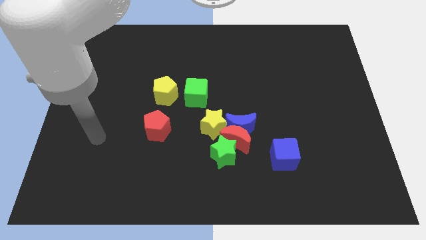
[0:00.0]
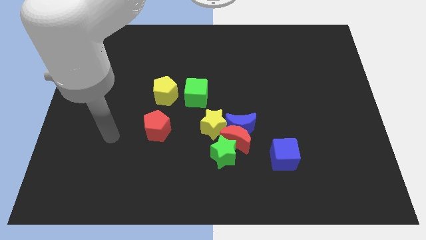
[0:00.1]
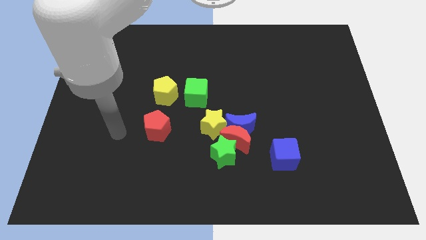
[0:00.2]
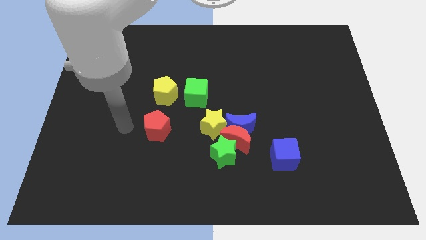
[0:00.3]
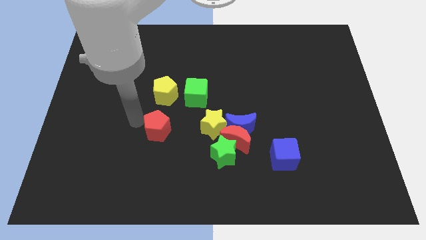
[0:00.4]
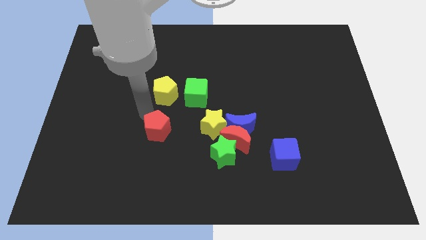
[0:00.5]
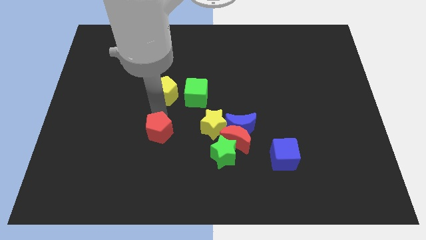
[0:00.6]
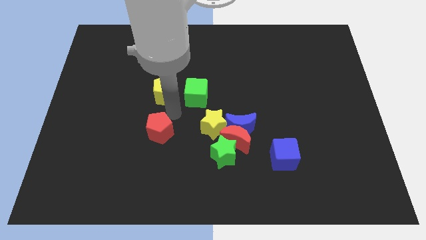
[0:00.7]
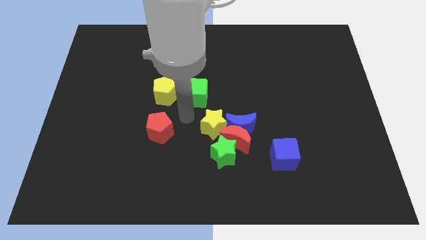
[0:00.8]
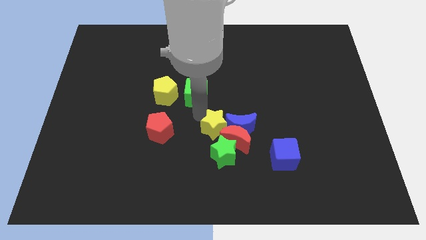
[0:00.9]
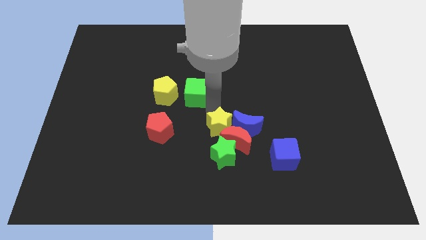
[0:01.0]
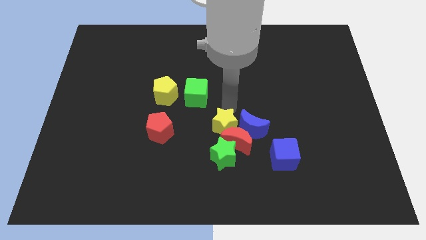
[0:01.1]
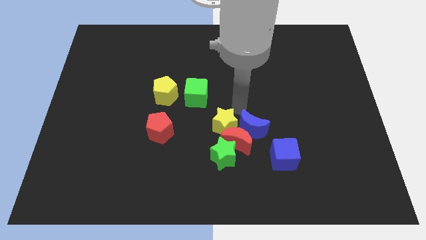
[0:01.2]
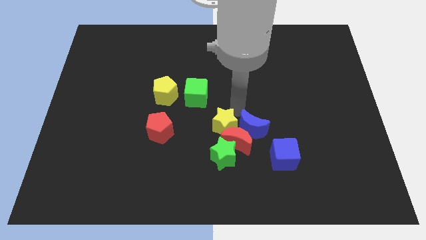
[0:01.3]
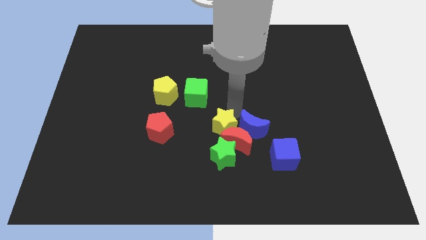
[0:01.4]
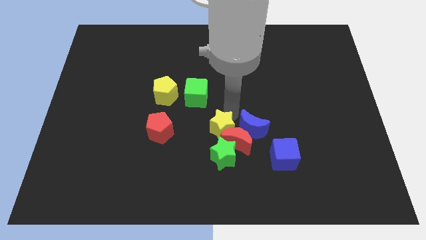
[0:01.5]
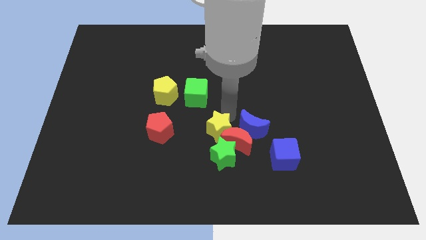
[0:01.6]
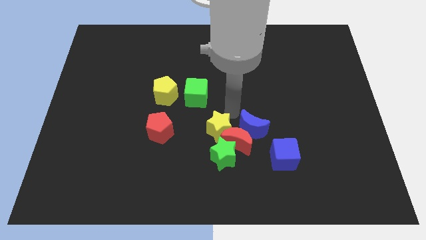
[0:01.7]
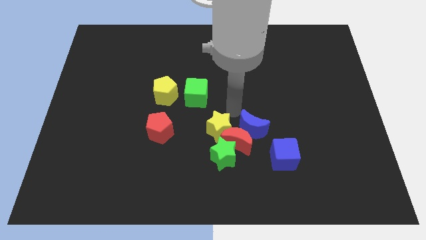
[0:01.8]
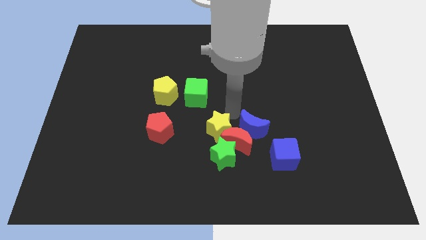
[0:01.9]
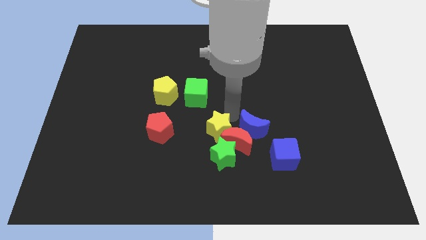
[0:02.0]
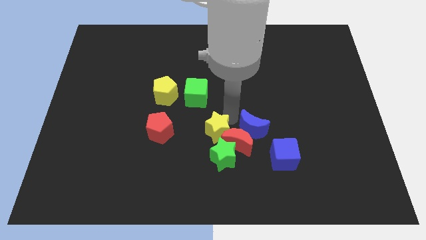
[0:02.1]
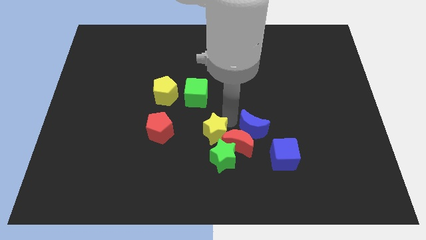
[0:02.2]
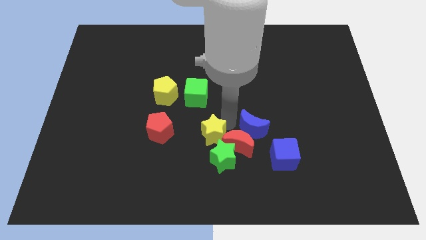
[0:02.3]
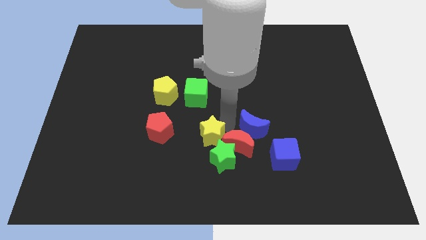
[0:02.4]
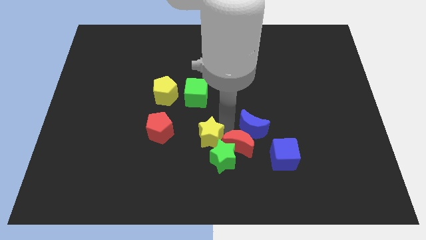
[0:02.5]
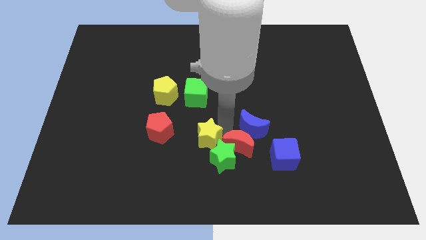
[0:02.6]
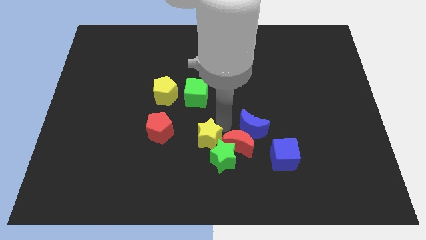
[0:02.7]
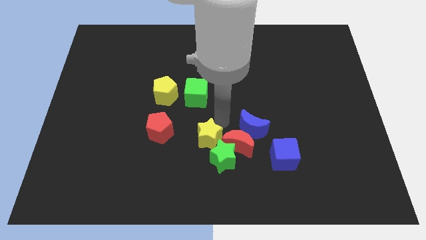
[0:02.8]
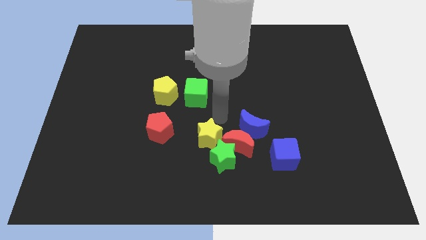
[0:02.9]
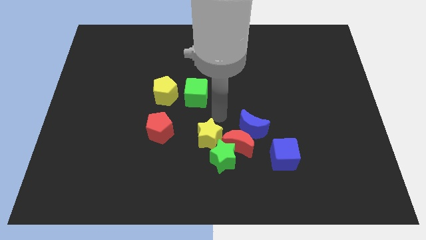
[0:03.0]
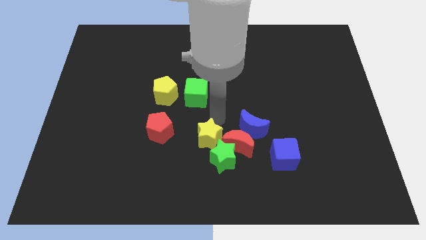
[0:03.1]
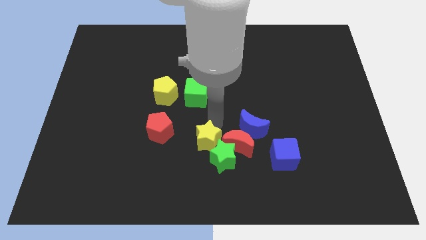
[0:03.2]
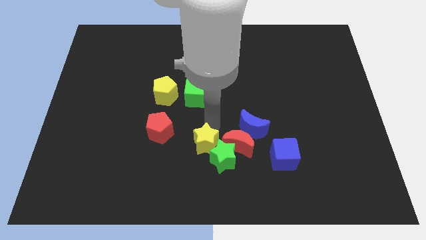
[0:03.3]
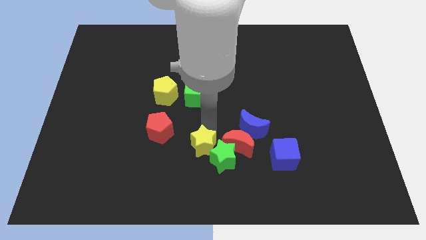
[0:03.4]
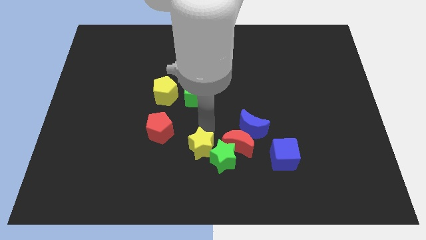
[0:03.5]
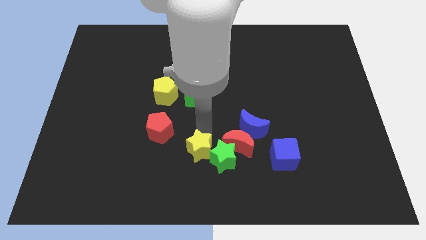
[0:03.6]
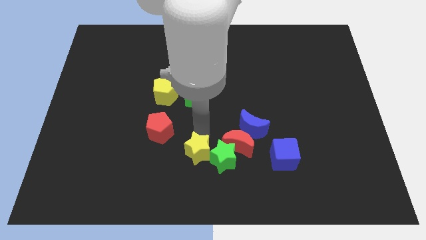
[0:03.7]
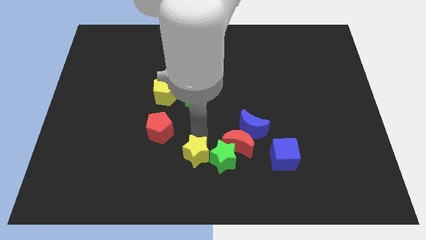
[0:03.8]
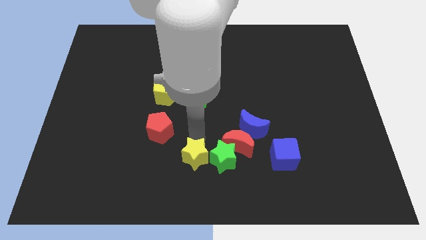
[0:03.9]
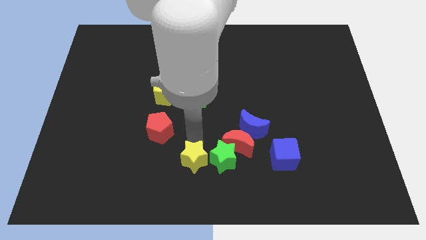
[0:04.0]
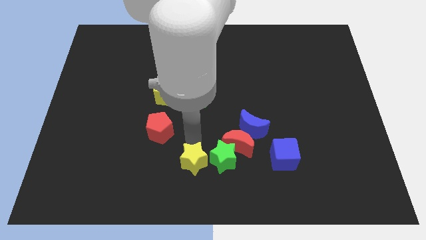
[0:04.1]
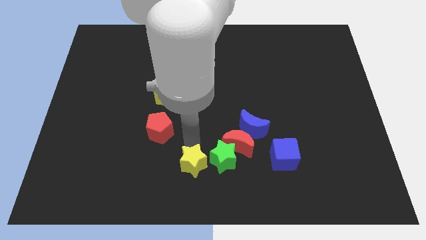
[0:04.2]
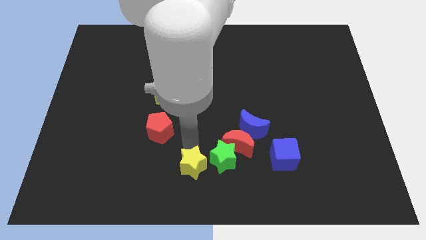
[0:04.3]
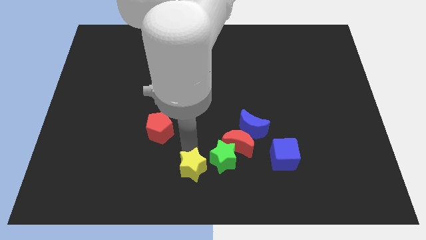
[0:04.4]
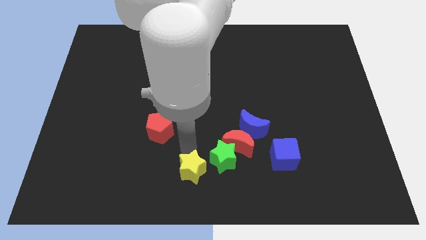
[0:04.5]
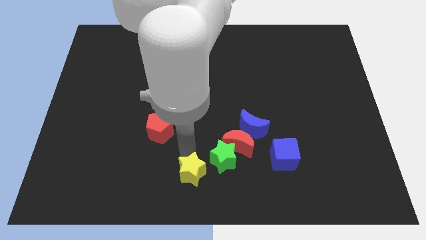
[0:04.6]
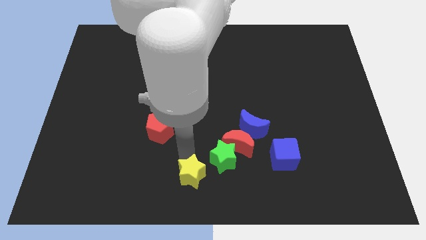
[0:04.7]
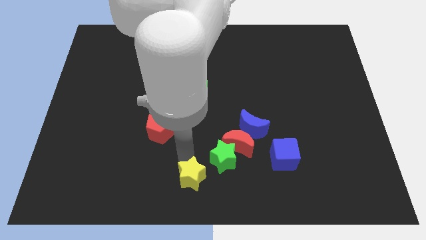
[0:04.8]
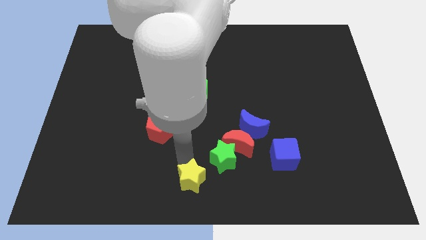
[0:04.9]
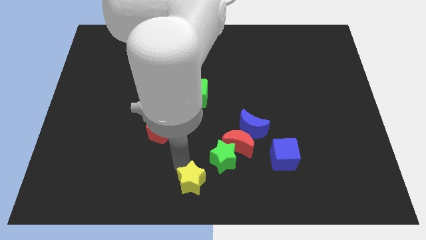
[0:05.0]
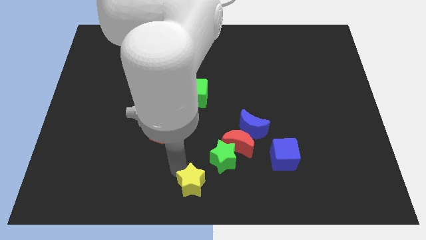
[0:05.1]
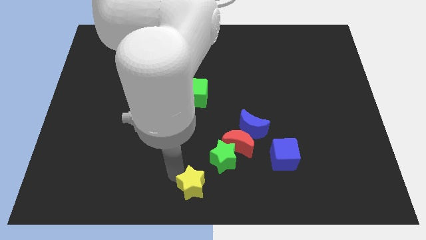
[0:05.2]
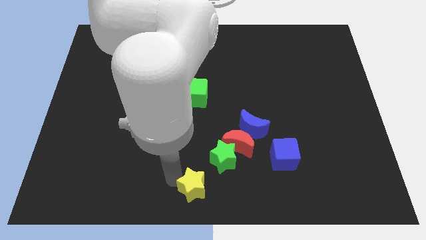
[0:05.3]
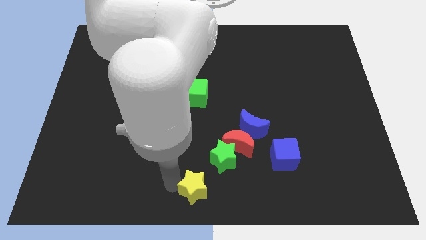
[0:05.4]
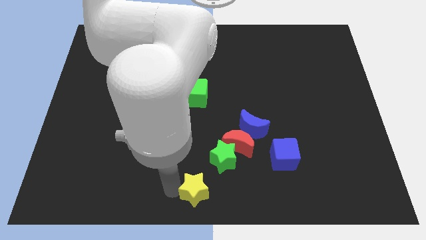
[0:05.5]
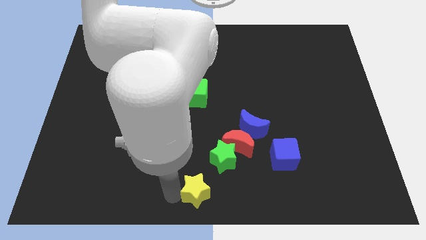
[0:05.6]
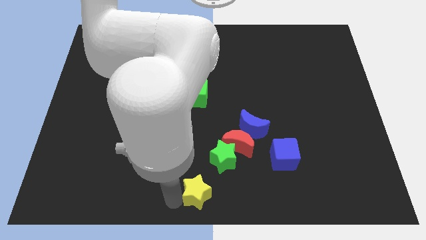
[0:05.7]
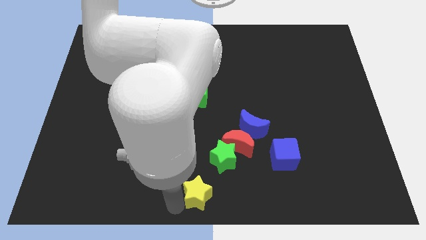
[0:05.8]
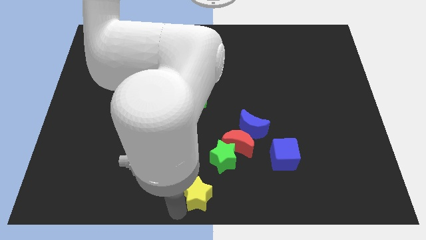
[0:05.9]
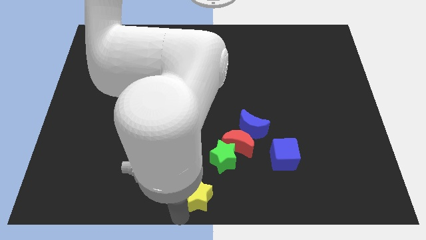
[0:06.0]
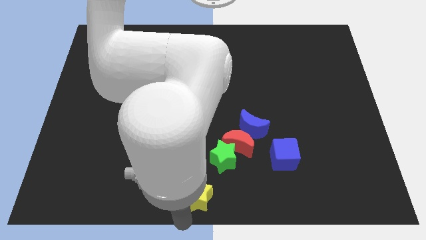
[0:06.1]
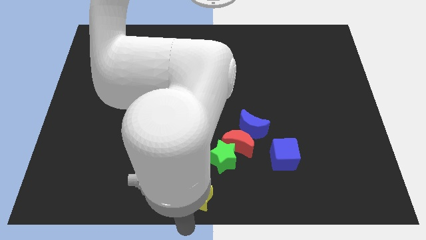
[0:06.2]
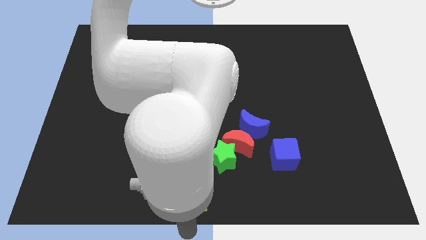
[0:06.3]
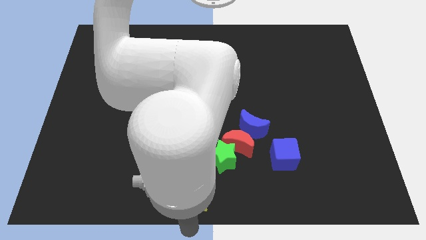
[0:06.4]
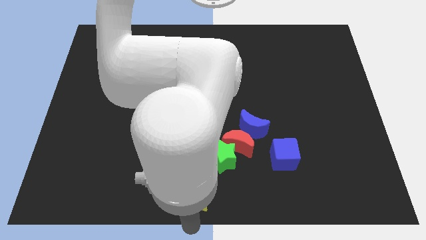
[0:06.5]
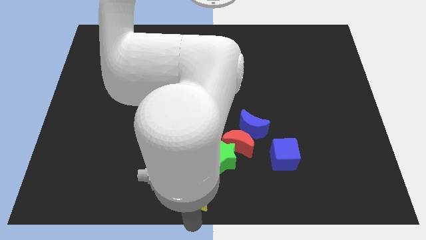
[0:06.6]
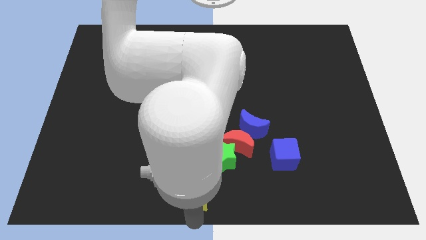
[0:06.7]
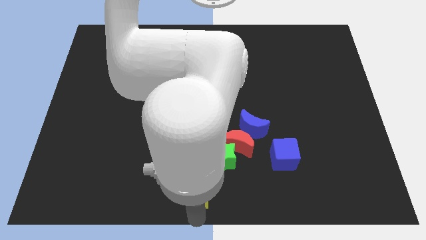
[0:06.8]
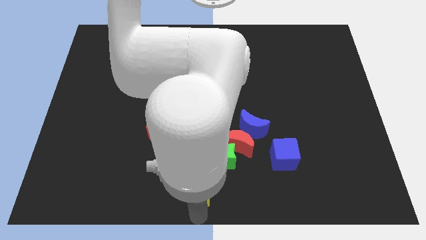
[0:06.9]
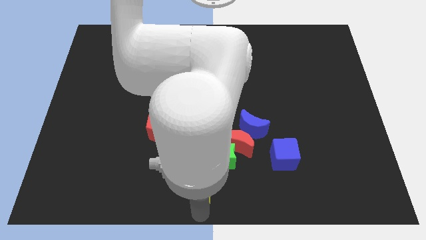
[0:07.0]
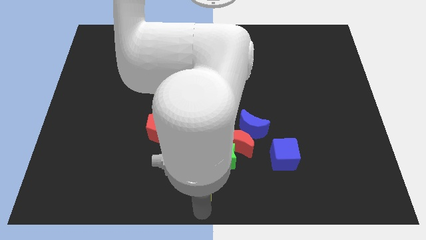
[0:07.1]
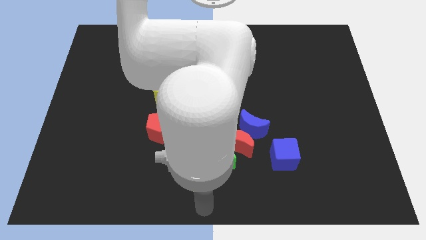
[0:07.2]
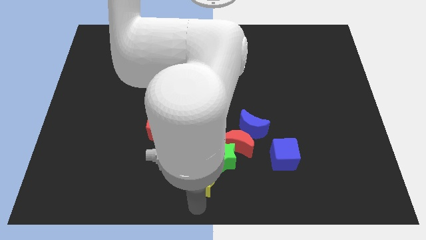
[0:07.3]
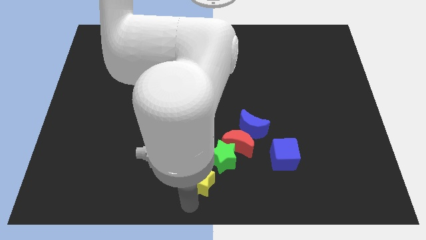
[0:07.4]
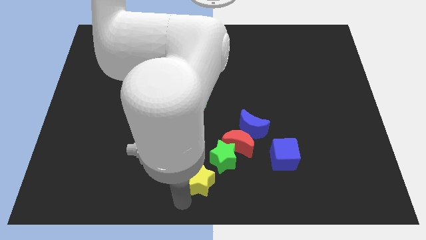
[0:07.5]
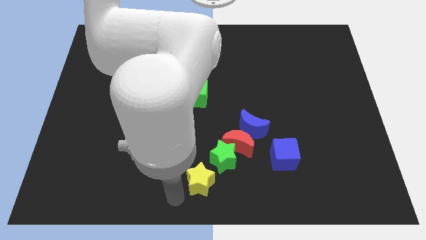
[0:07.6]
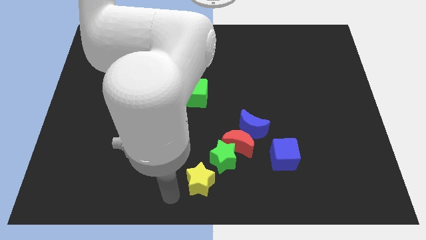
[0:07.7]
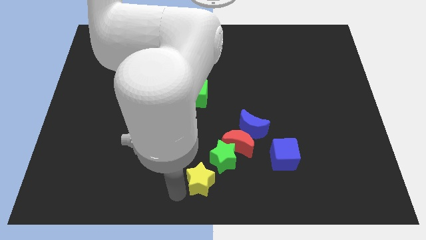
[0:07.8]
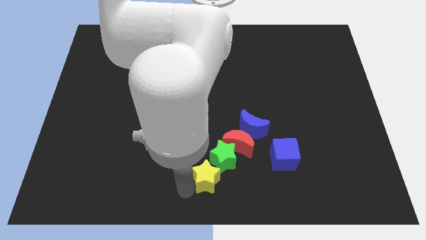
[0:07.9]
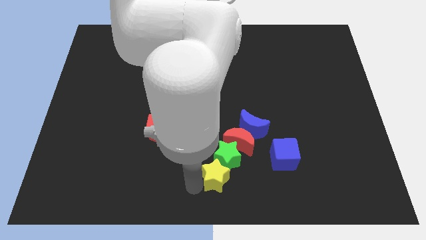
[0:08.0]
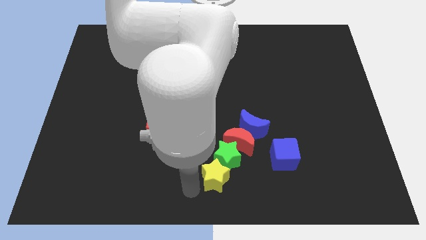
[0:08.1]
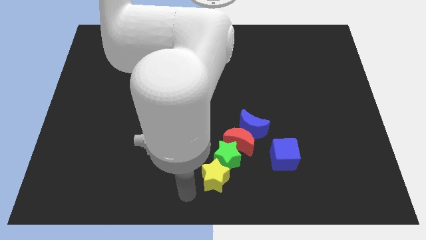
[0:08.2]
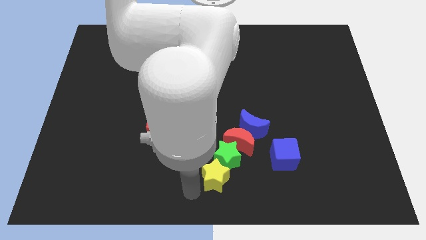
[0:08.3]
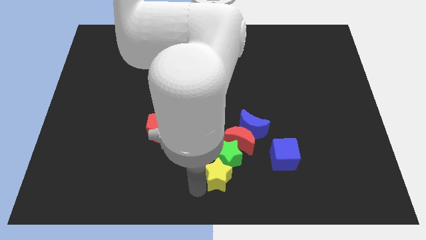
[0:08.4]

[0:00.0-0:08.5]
push the yellow star diagonally down and to the right of the green star

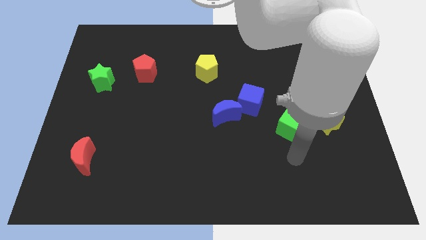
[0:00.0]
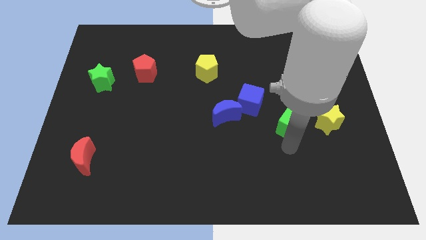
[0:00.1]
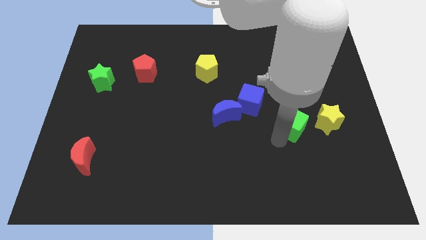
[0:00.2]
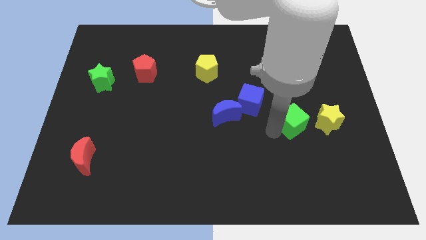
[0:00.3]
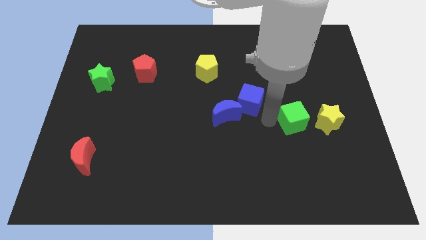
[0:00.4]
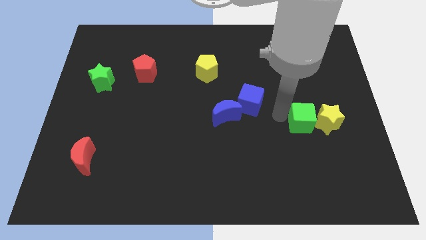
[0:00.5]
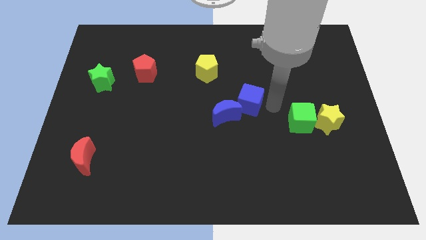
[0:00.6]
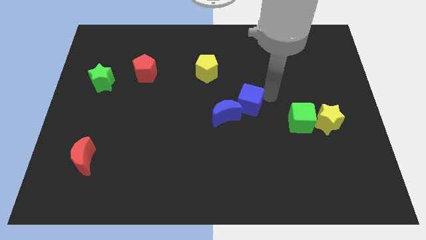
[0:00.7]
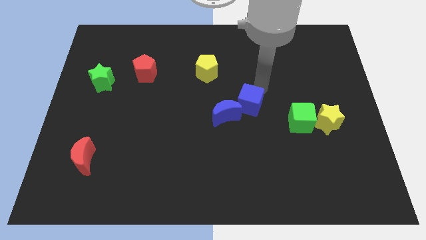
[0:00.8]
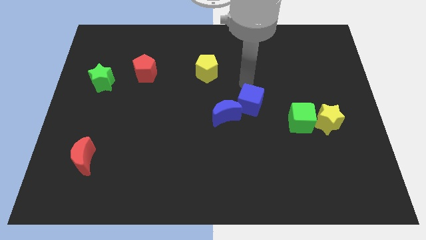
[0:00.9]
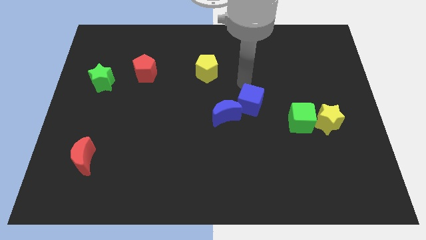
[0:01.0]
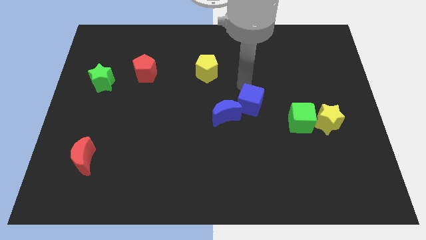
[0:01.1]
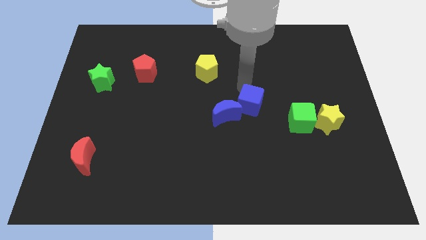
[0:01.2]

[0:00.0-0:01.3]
move the blue cube to the left of the green cube
